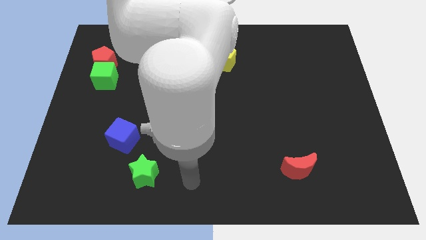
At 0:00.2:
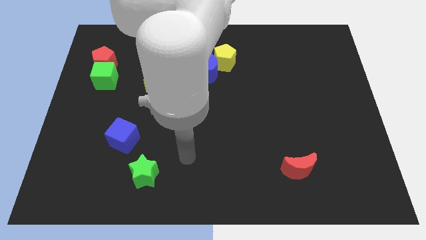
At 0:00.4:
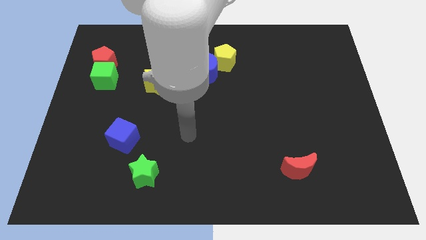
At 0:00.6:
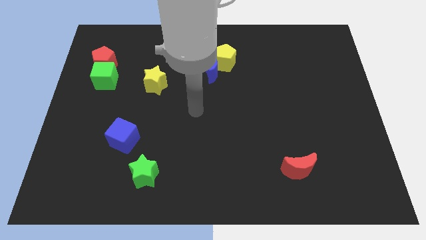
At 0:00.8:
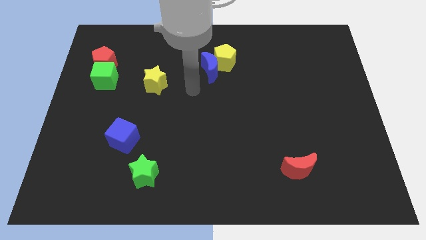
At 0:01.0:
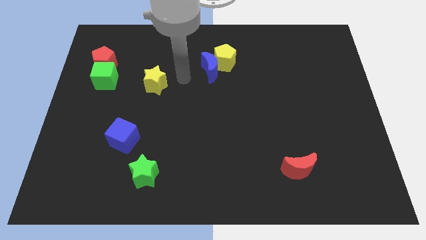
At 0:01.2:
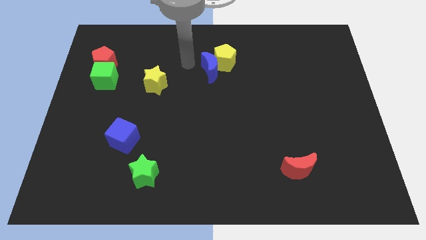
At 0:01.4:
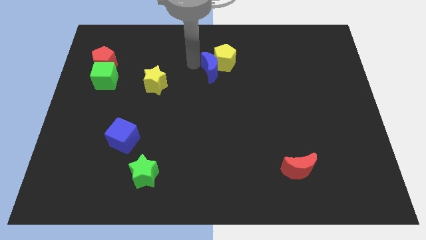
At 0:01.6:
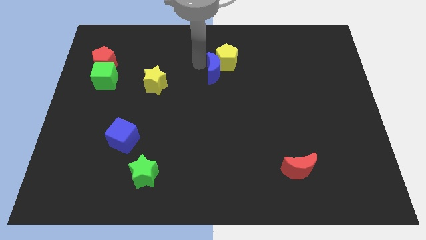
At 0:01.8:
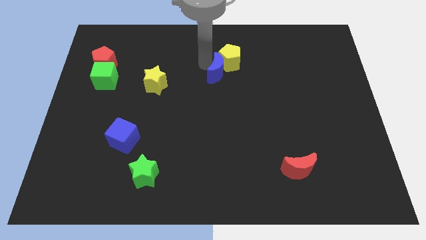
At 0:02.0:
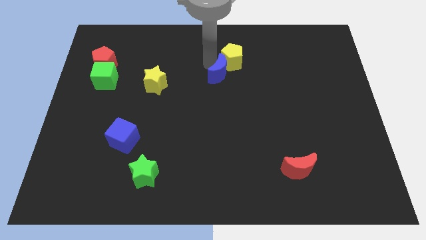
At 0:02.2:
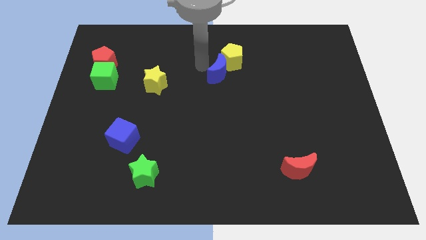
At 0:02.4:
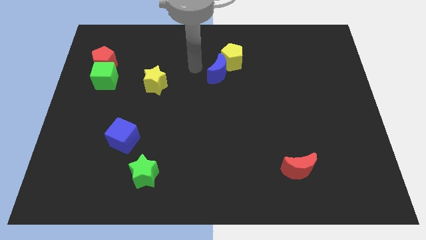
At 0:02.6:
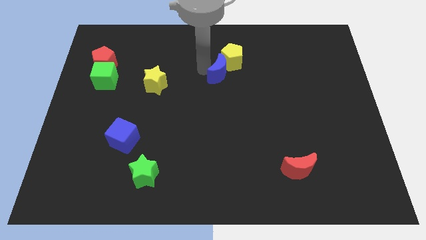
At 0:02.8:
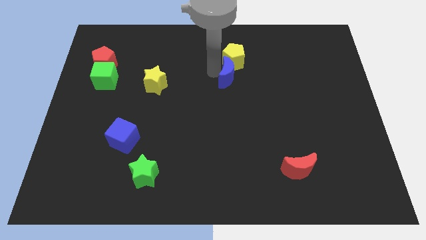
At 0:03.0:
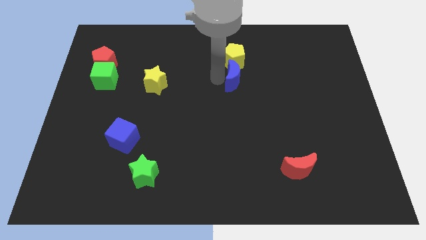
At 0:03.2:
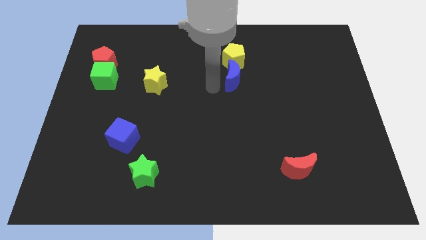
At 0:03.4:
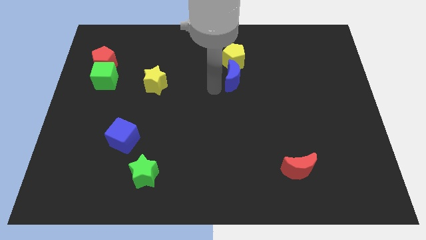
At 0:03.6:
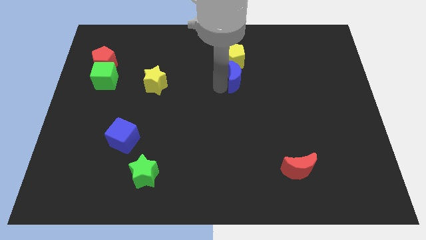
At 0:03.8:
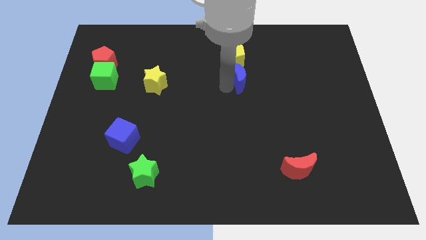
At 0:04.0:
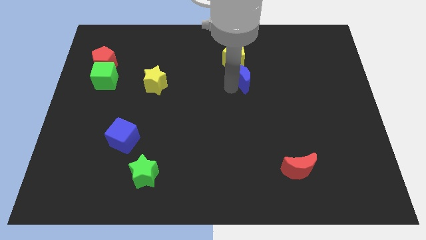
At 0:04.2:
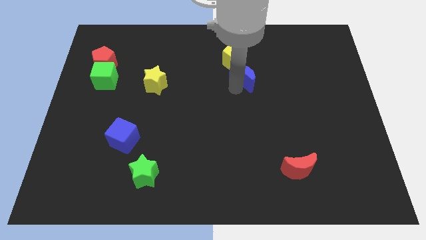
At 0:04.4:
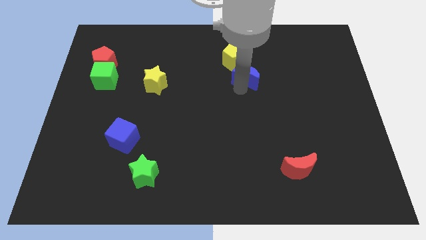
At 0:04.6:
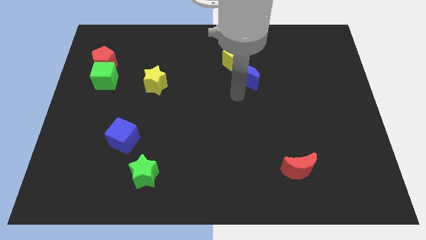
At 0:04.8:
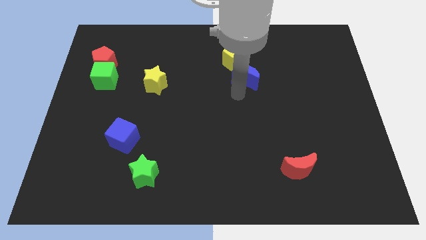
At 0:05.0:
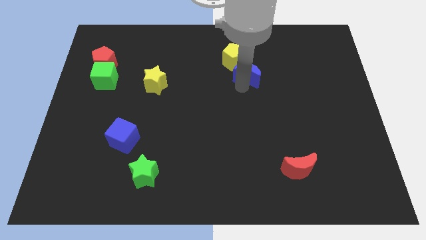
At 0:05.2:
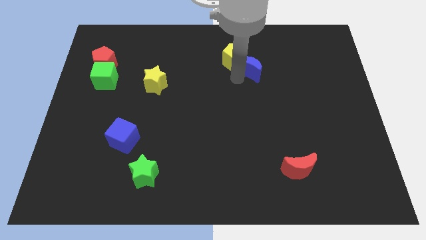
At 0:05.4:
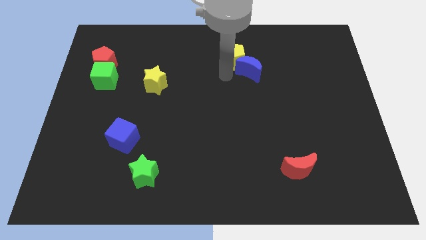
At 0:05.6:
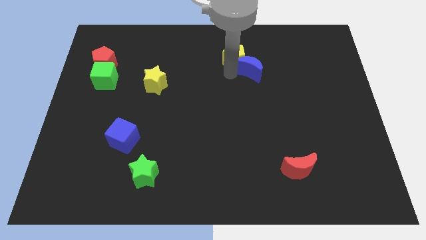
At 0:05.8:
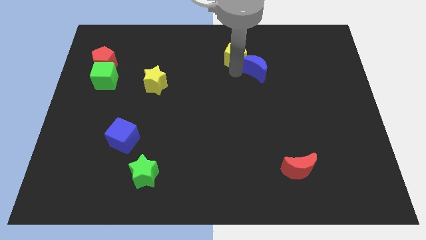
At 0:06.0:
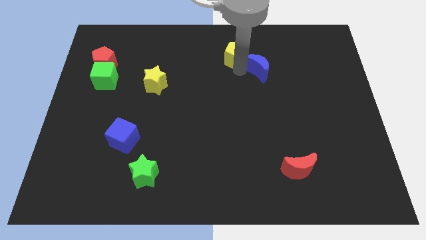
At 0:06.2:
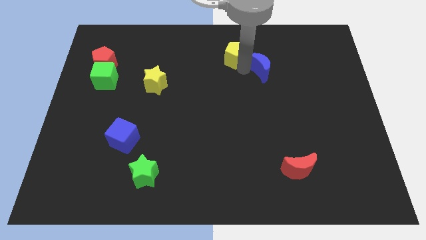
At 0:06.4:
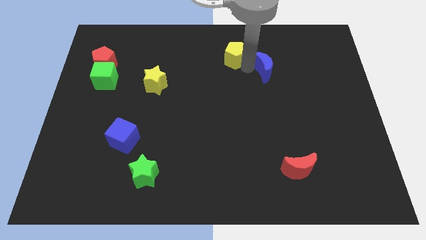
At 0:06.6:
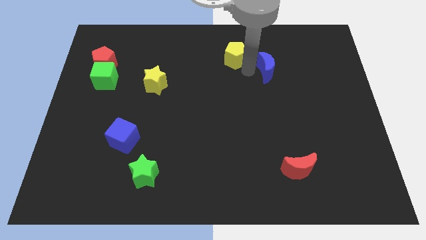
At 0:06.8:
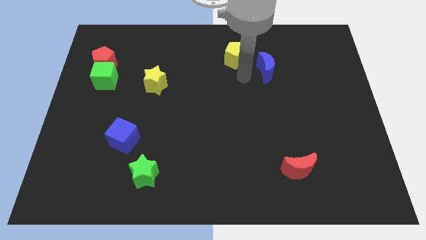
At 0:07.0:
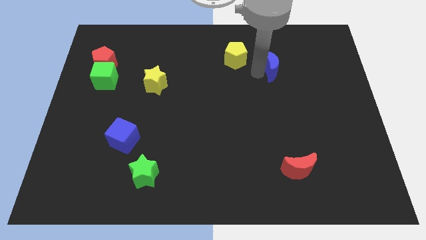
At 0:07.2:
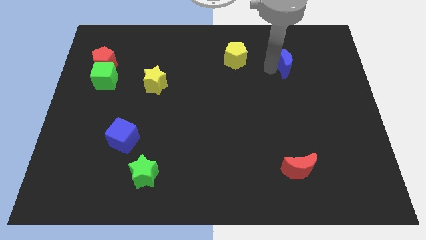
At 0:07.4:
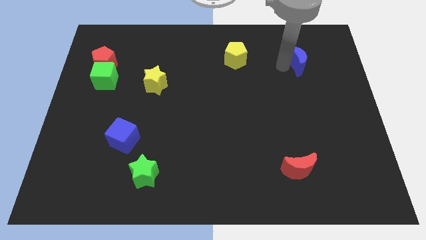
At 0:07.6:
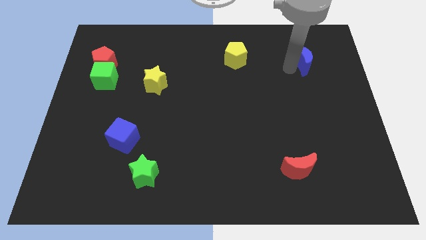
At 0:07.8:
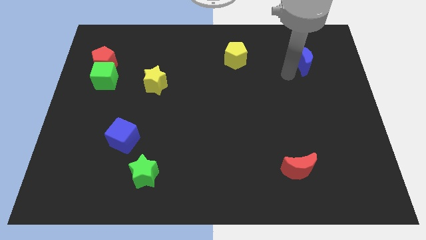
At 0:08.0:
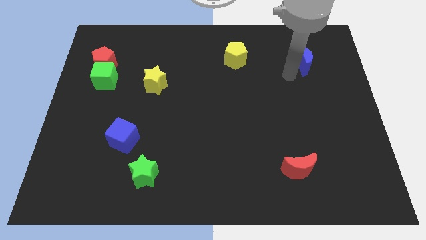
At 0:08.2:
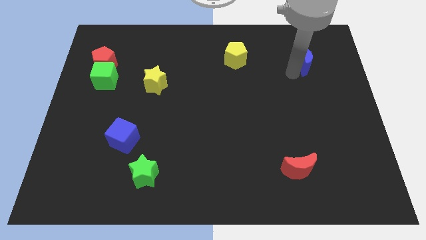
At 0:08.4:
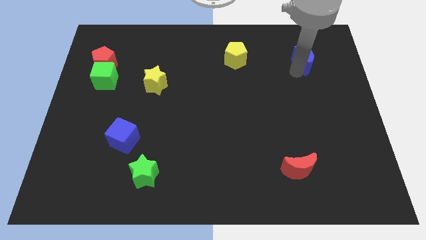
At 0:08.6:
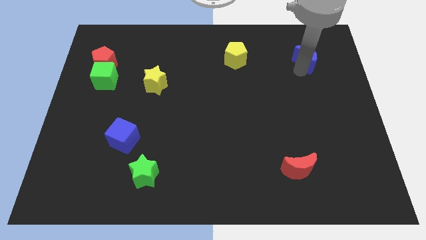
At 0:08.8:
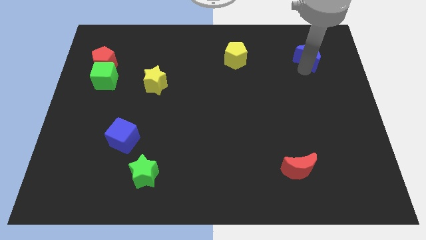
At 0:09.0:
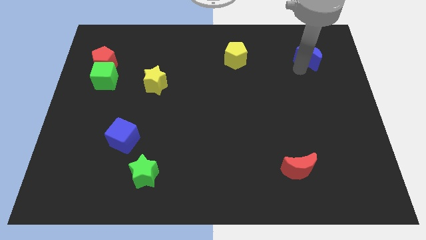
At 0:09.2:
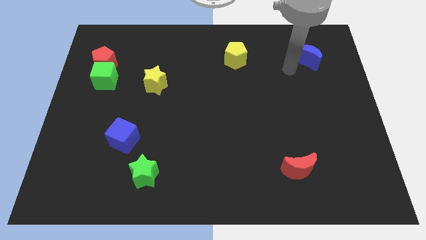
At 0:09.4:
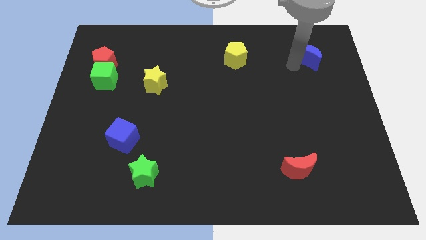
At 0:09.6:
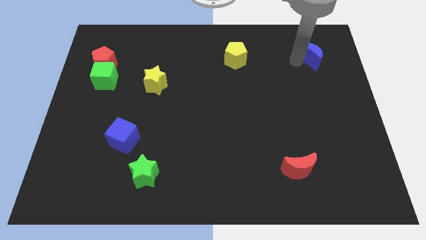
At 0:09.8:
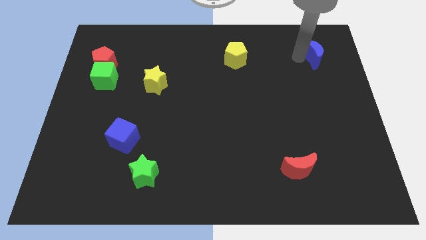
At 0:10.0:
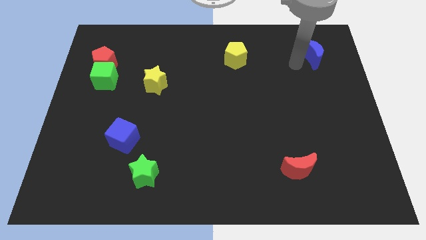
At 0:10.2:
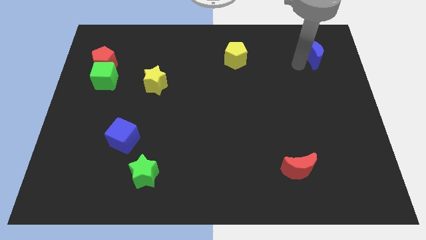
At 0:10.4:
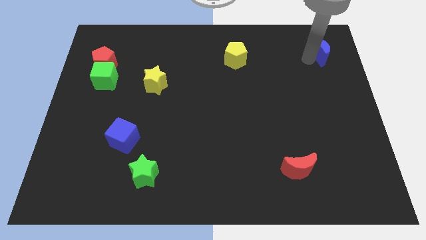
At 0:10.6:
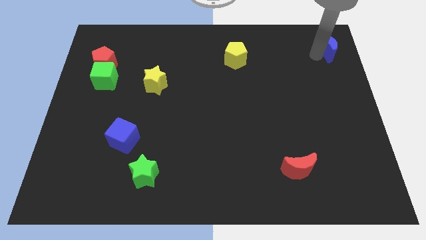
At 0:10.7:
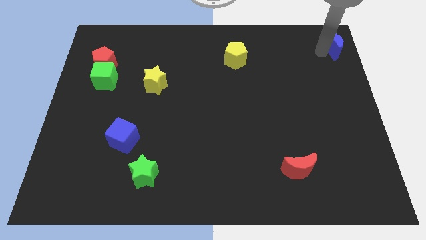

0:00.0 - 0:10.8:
move the blue moon to the top right
